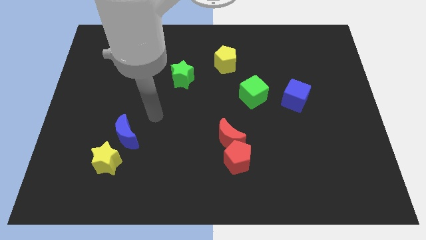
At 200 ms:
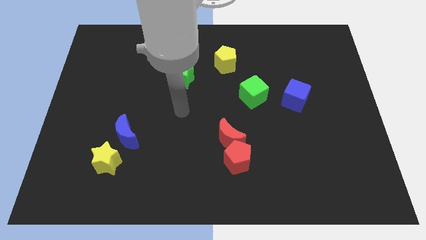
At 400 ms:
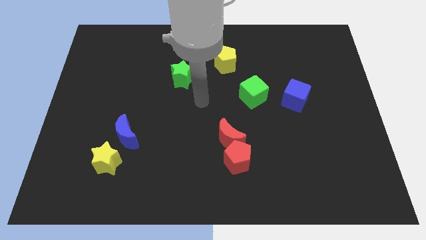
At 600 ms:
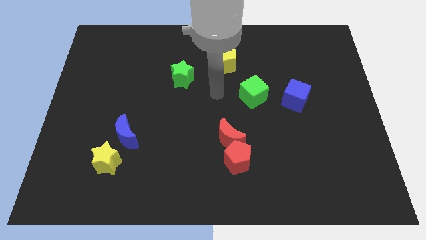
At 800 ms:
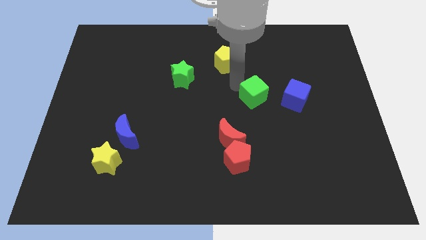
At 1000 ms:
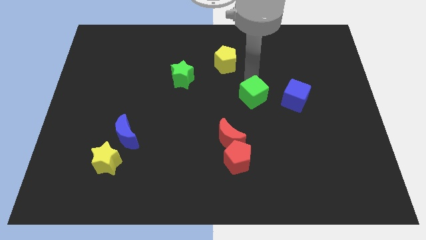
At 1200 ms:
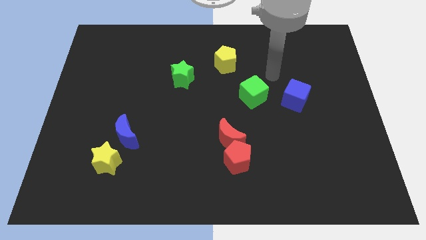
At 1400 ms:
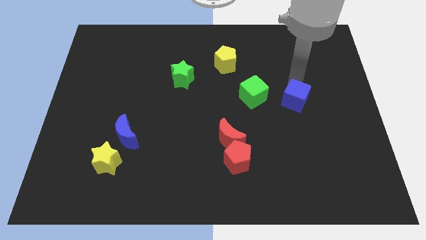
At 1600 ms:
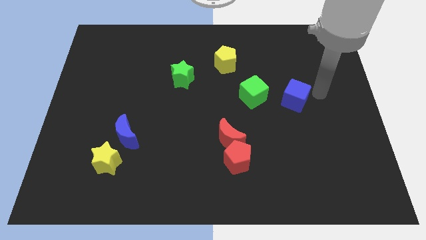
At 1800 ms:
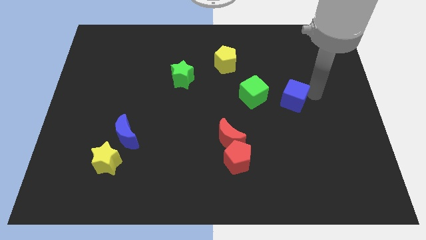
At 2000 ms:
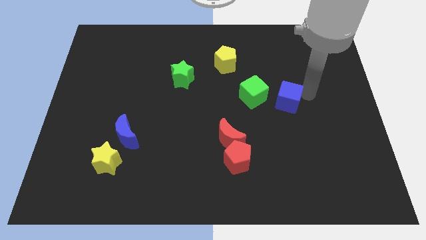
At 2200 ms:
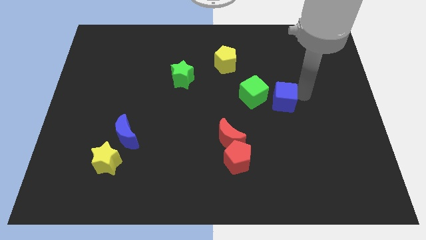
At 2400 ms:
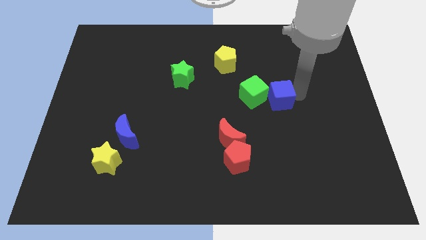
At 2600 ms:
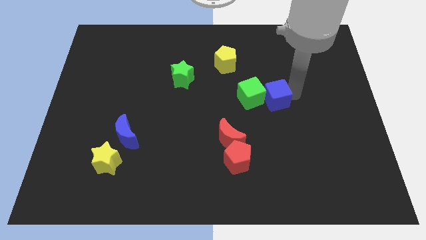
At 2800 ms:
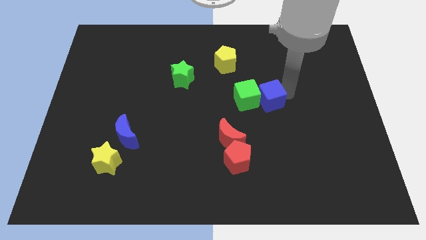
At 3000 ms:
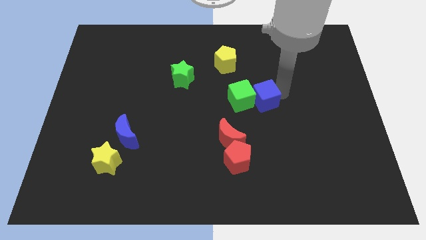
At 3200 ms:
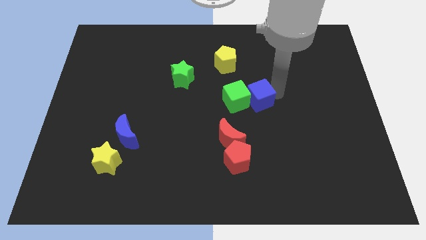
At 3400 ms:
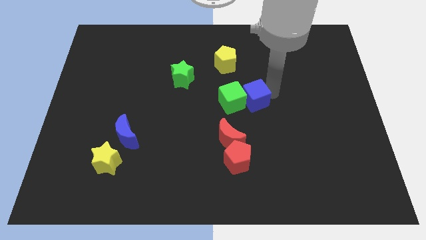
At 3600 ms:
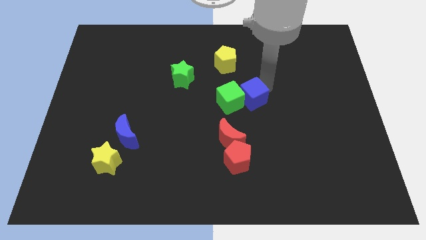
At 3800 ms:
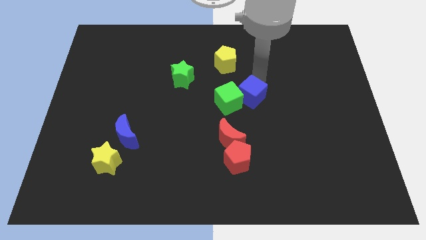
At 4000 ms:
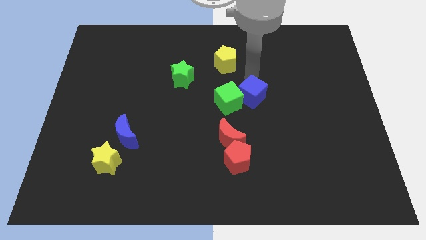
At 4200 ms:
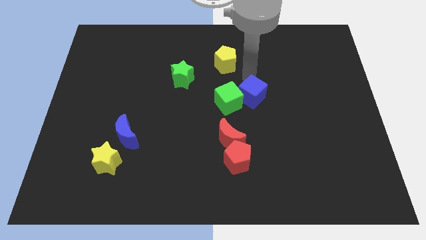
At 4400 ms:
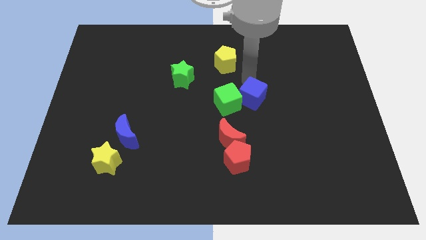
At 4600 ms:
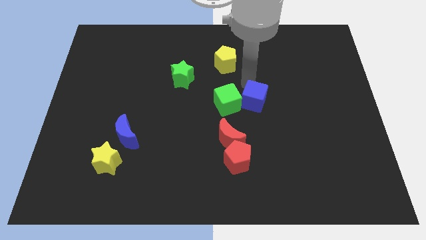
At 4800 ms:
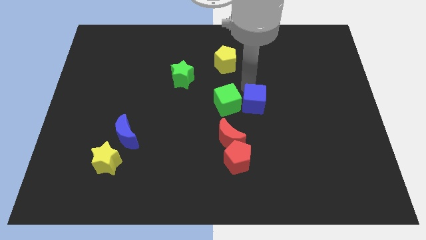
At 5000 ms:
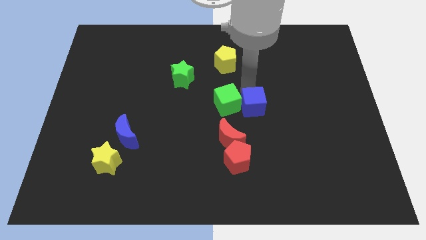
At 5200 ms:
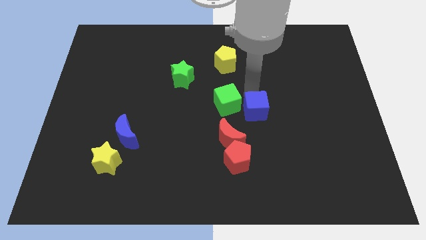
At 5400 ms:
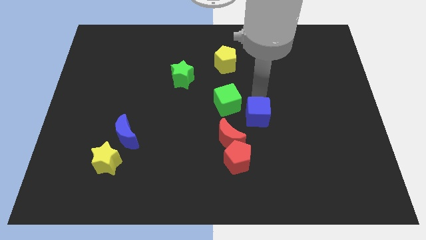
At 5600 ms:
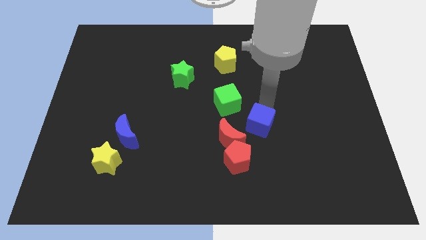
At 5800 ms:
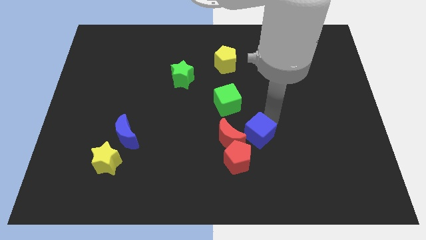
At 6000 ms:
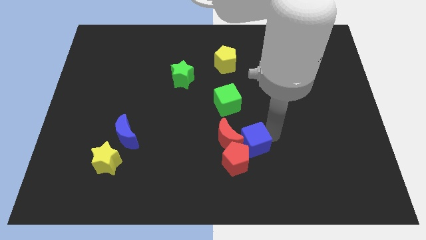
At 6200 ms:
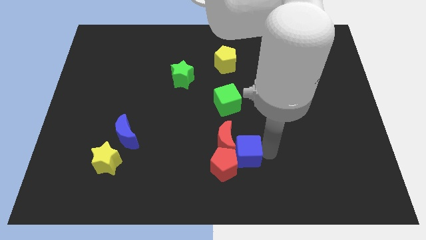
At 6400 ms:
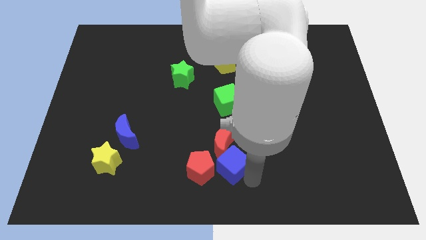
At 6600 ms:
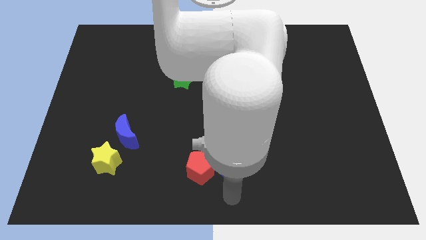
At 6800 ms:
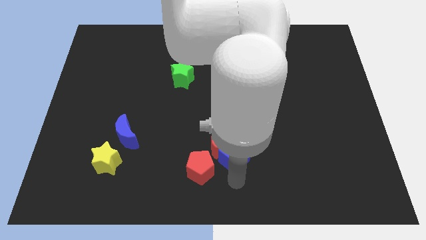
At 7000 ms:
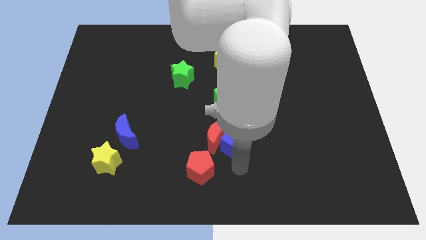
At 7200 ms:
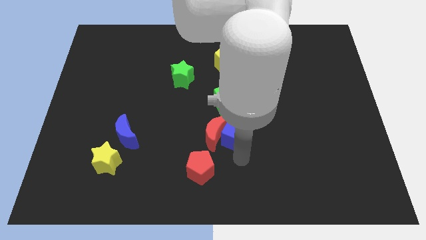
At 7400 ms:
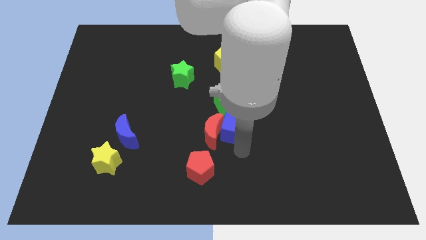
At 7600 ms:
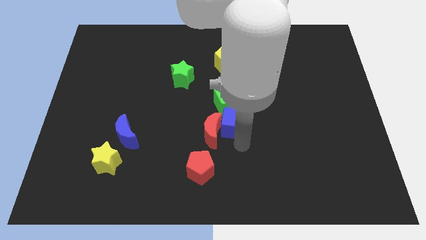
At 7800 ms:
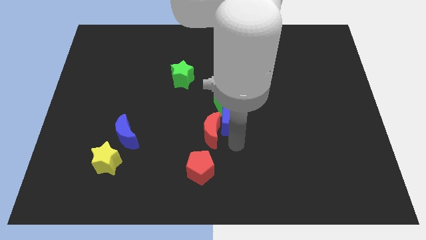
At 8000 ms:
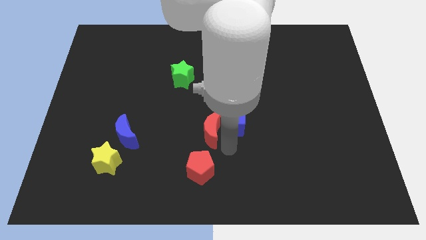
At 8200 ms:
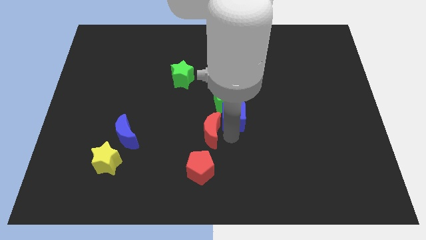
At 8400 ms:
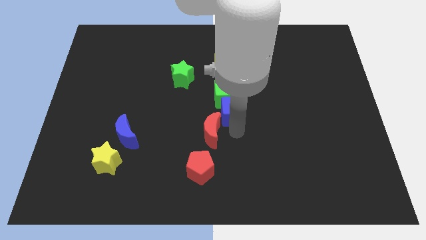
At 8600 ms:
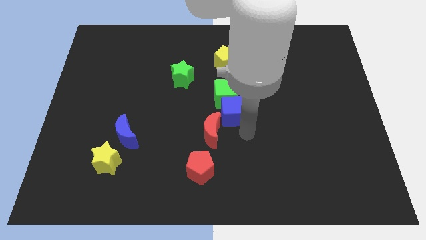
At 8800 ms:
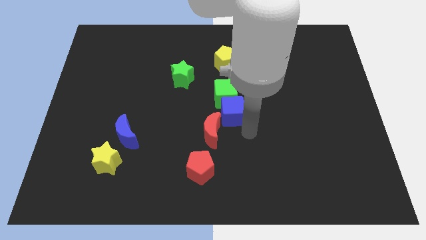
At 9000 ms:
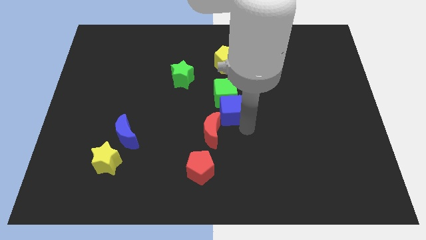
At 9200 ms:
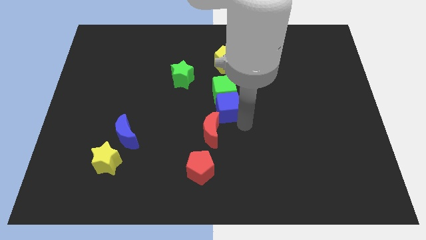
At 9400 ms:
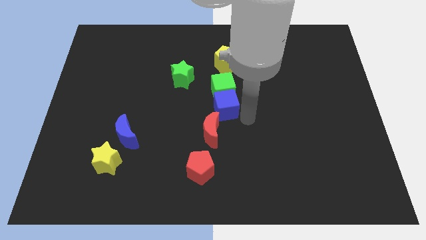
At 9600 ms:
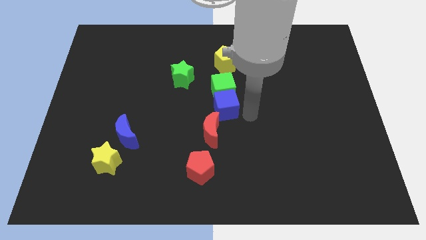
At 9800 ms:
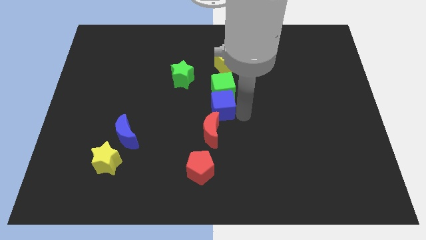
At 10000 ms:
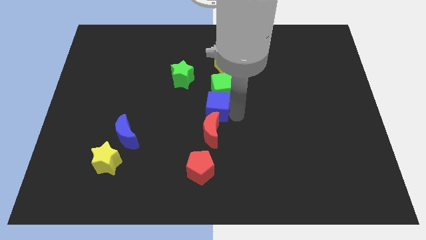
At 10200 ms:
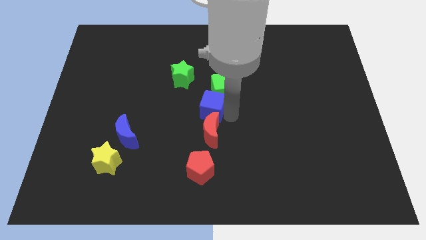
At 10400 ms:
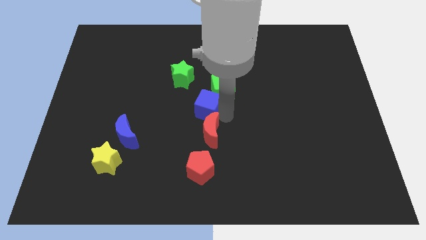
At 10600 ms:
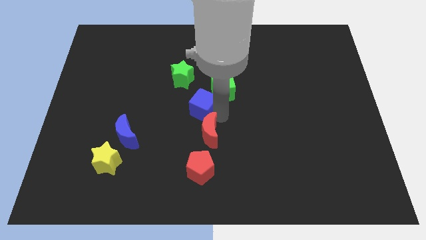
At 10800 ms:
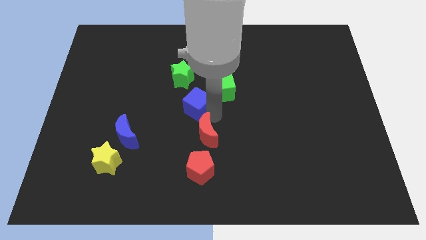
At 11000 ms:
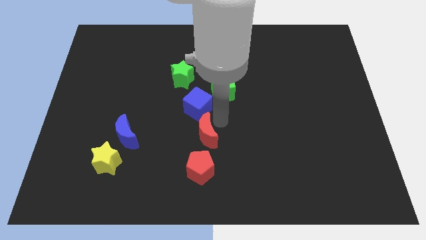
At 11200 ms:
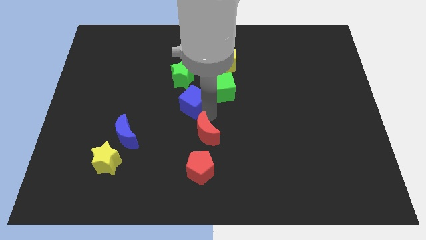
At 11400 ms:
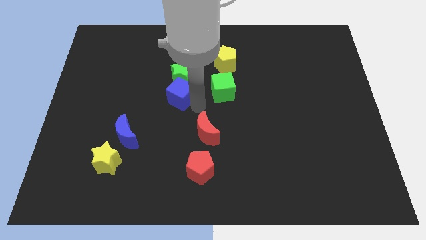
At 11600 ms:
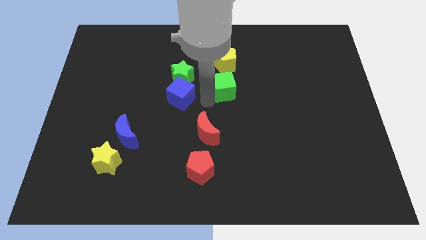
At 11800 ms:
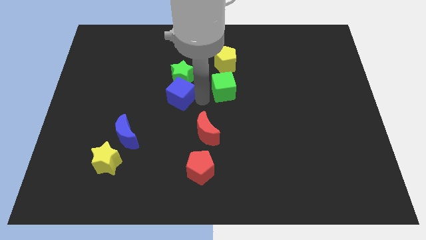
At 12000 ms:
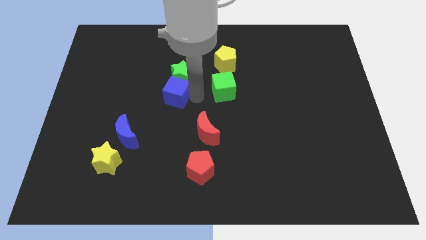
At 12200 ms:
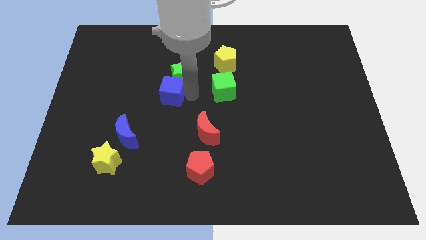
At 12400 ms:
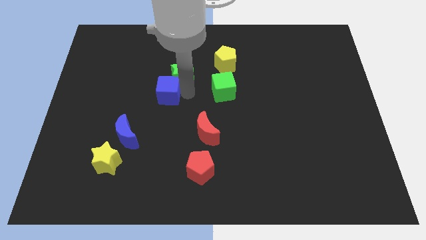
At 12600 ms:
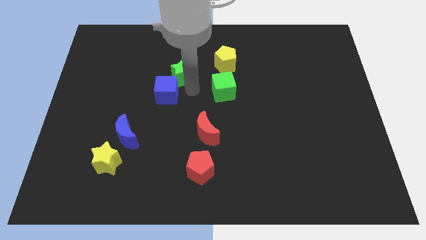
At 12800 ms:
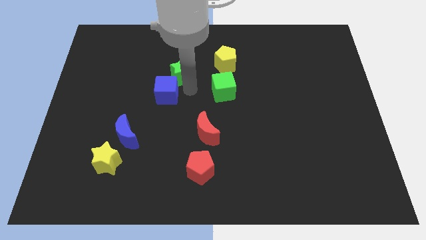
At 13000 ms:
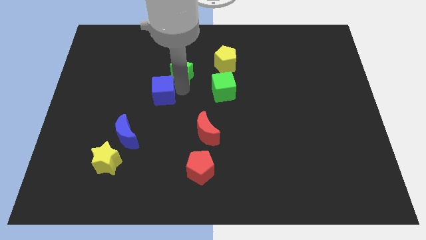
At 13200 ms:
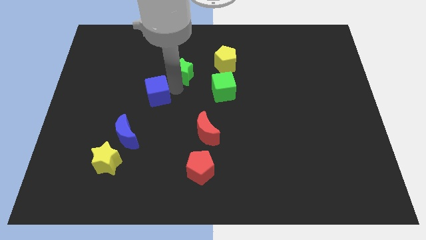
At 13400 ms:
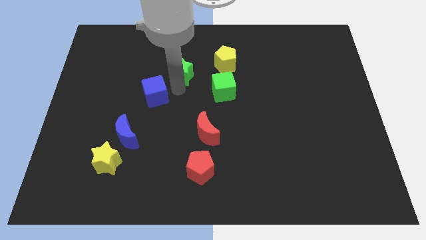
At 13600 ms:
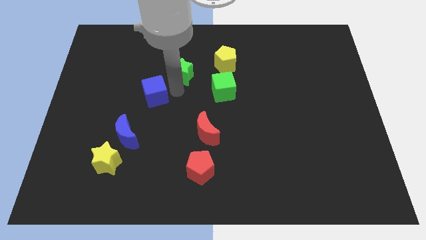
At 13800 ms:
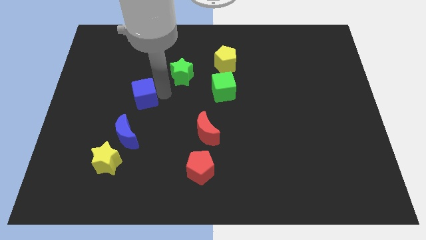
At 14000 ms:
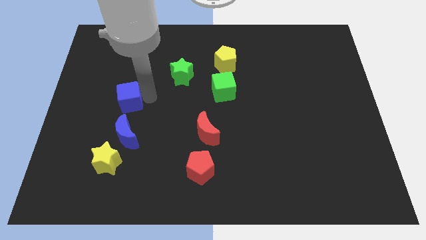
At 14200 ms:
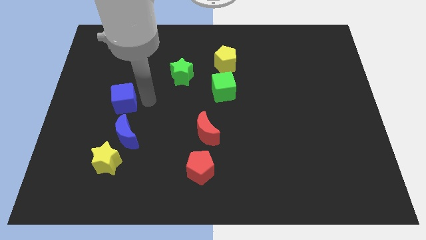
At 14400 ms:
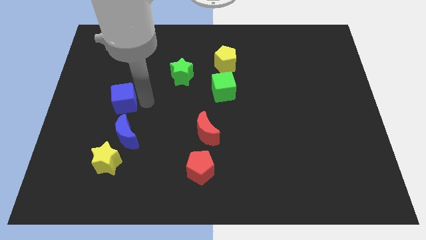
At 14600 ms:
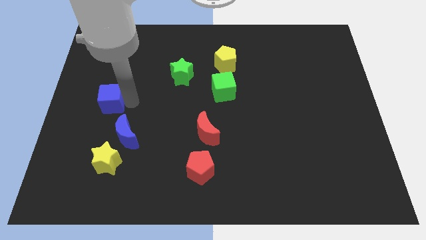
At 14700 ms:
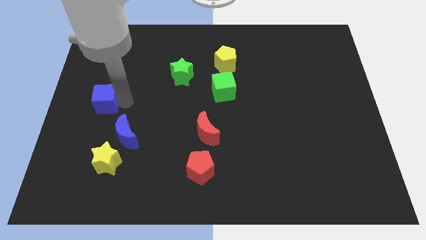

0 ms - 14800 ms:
slide the blue cube to the left side of the board
